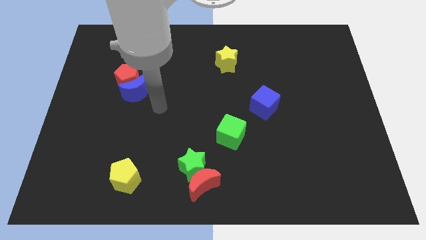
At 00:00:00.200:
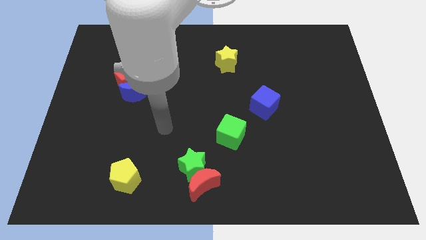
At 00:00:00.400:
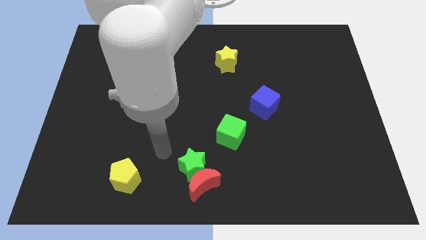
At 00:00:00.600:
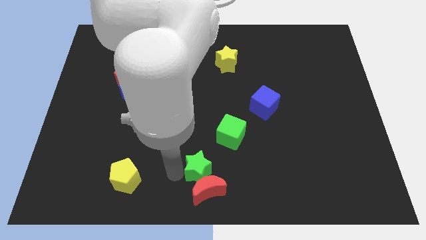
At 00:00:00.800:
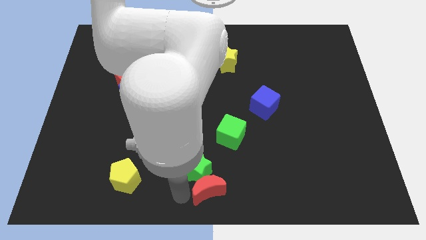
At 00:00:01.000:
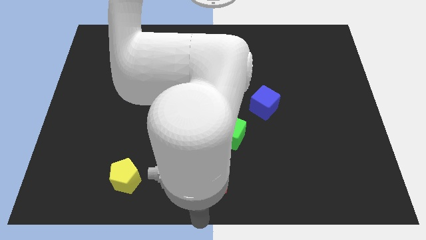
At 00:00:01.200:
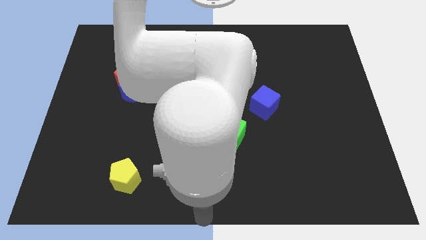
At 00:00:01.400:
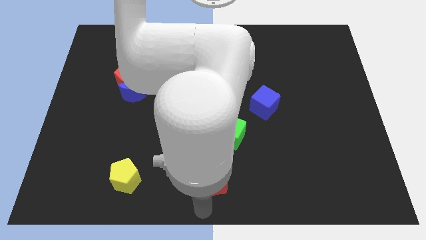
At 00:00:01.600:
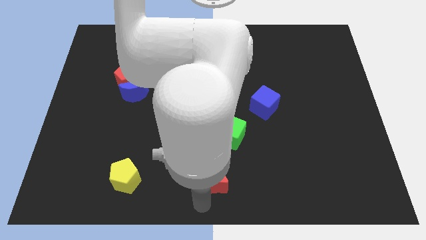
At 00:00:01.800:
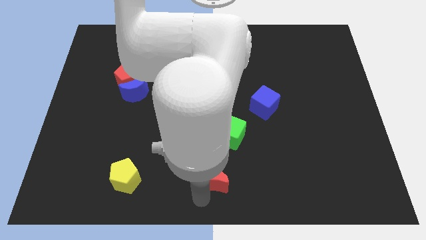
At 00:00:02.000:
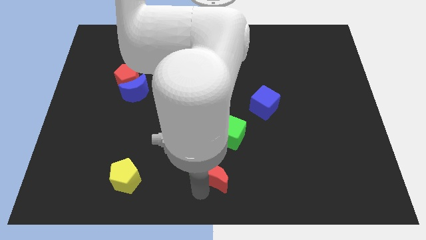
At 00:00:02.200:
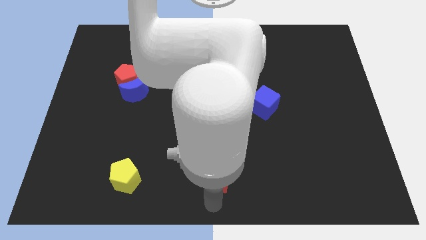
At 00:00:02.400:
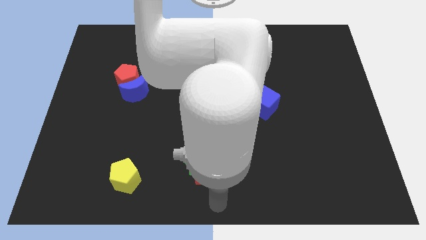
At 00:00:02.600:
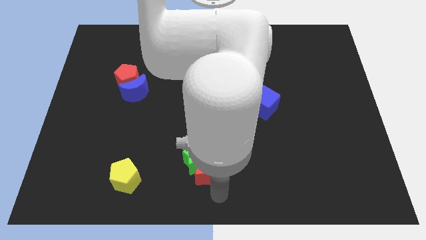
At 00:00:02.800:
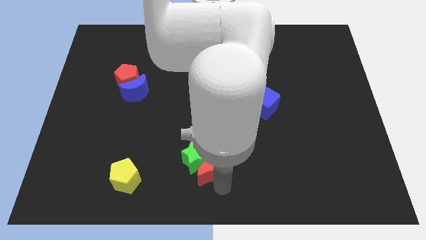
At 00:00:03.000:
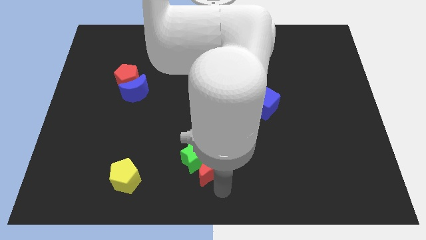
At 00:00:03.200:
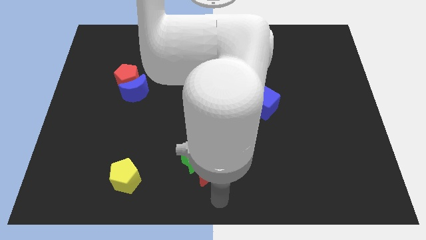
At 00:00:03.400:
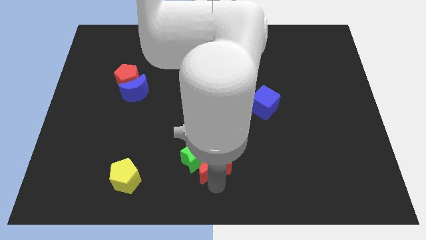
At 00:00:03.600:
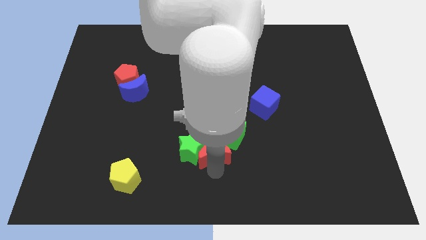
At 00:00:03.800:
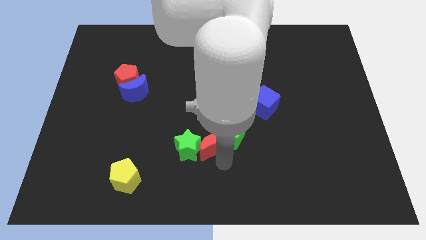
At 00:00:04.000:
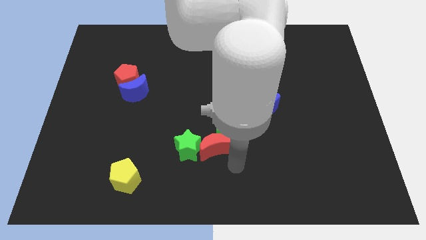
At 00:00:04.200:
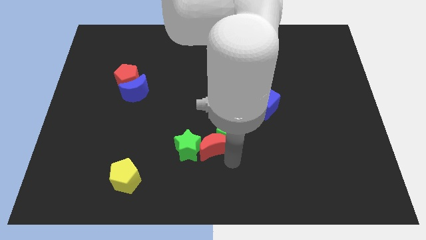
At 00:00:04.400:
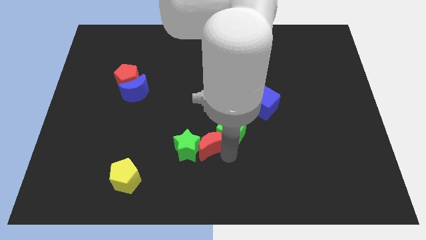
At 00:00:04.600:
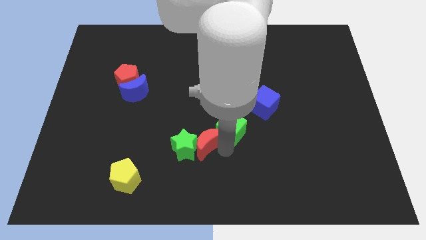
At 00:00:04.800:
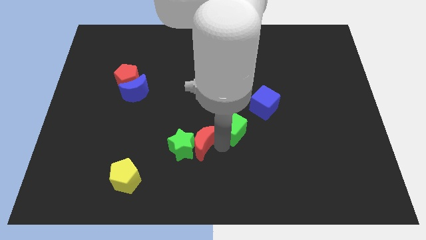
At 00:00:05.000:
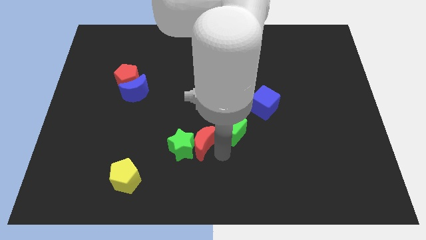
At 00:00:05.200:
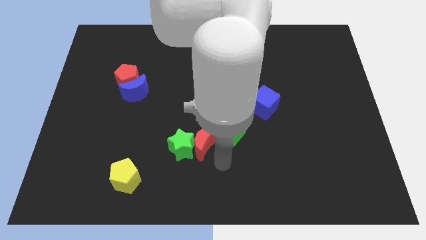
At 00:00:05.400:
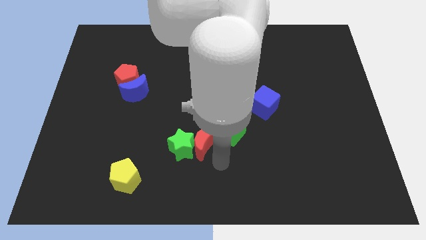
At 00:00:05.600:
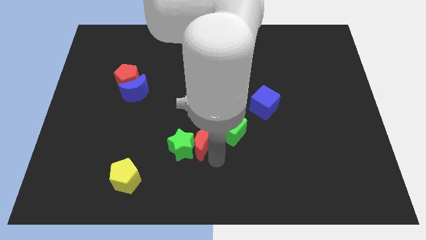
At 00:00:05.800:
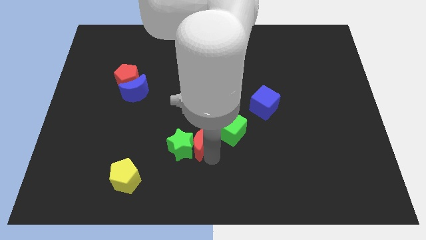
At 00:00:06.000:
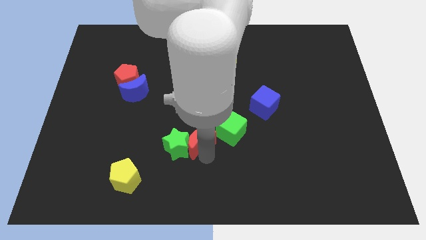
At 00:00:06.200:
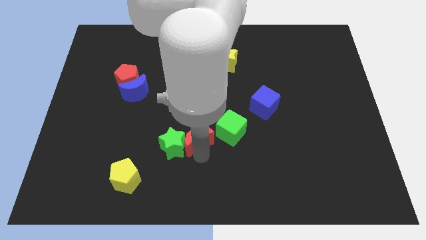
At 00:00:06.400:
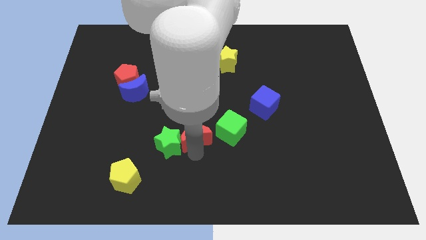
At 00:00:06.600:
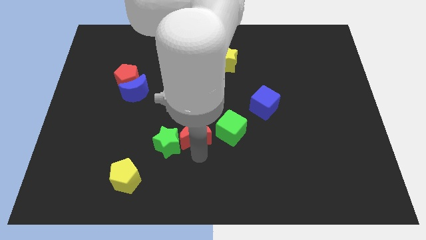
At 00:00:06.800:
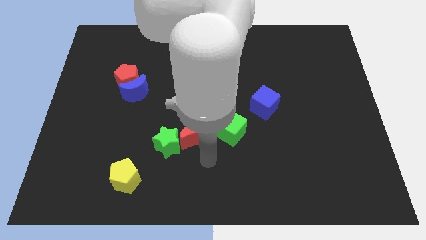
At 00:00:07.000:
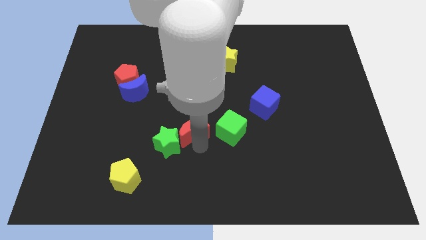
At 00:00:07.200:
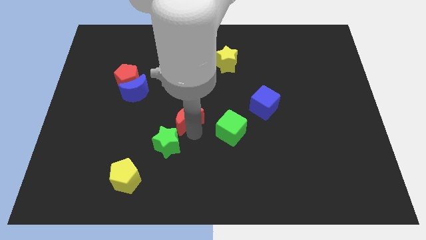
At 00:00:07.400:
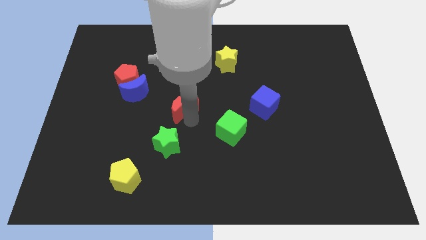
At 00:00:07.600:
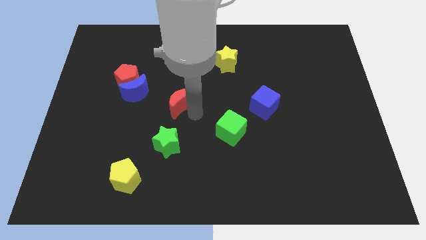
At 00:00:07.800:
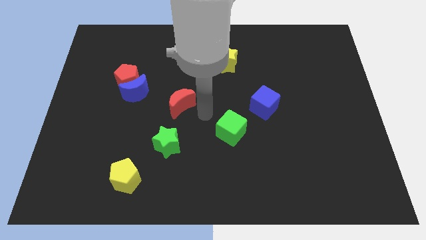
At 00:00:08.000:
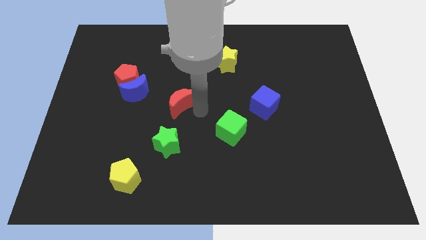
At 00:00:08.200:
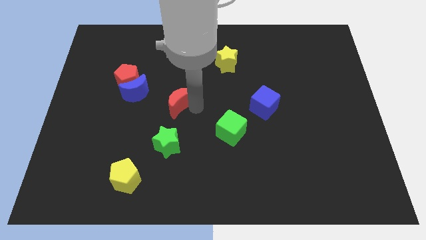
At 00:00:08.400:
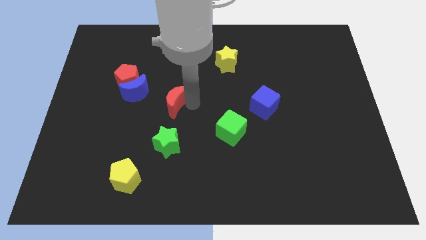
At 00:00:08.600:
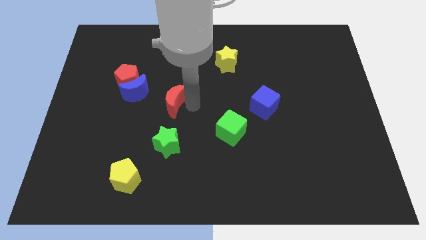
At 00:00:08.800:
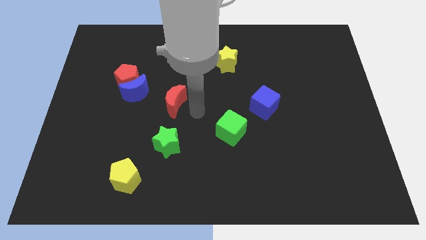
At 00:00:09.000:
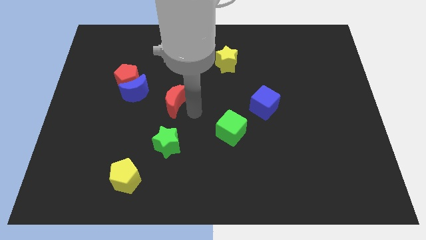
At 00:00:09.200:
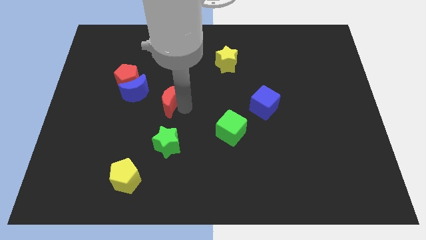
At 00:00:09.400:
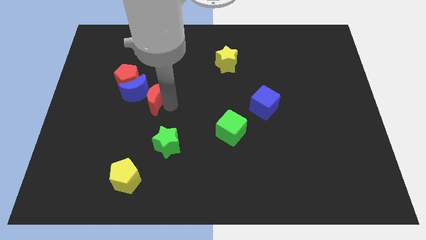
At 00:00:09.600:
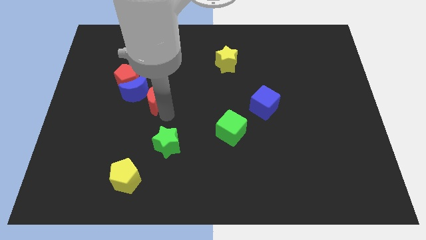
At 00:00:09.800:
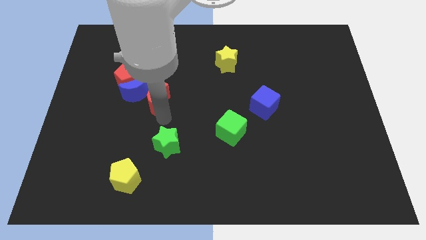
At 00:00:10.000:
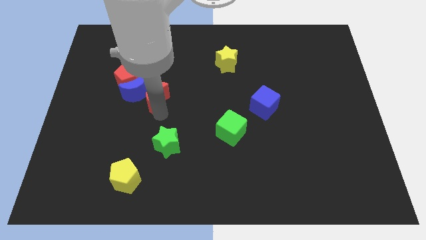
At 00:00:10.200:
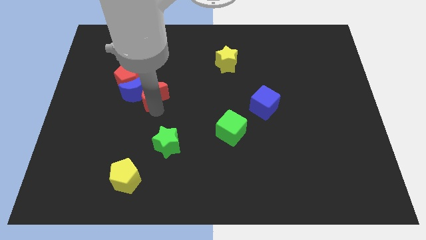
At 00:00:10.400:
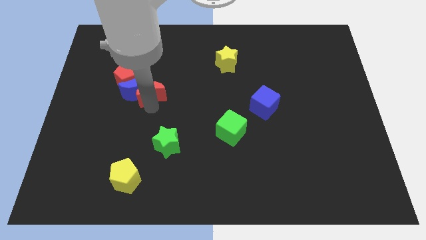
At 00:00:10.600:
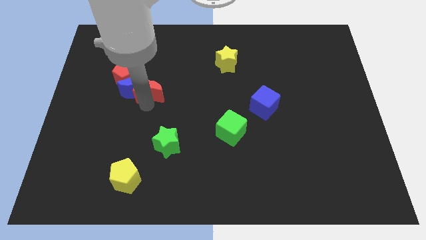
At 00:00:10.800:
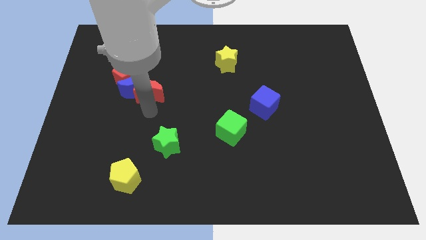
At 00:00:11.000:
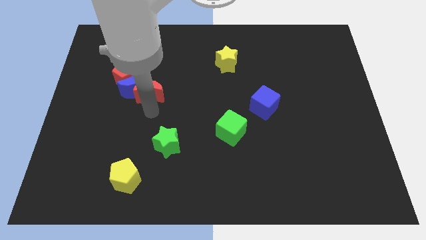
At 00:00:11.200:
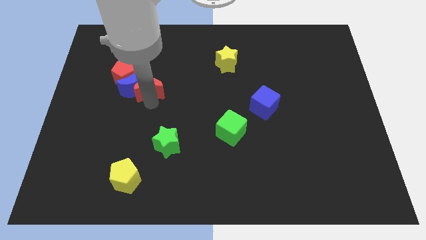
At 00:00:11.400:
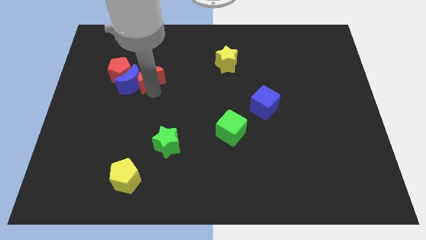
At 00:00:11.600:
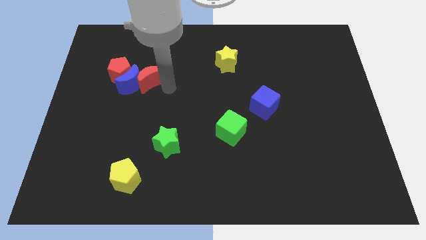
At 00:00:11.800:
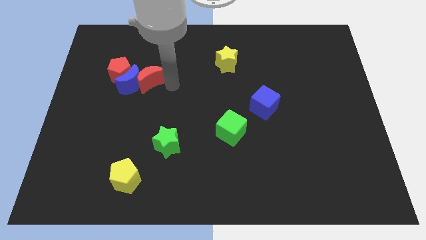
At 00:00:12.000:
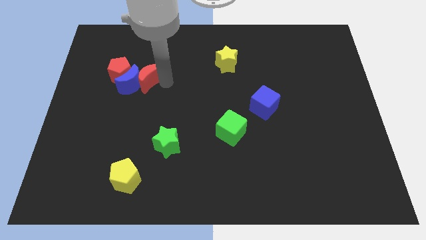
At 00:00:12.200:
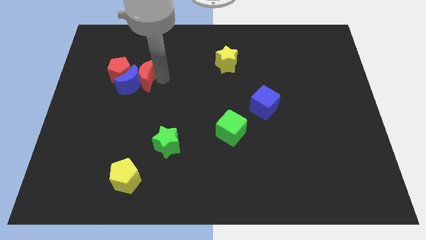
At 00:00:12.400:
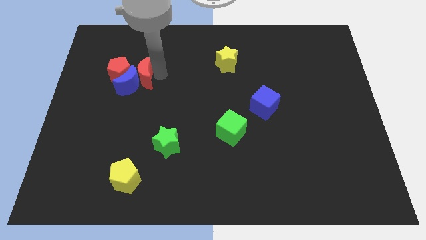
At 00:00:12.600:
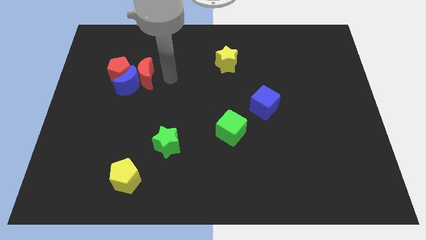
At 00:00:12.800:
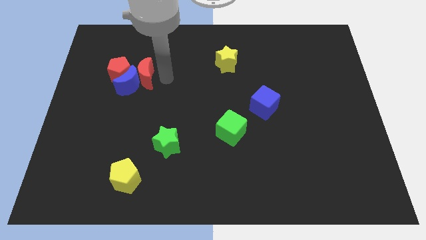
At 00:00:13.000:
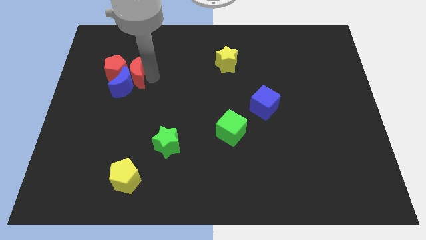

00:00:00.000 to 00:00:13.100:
push the red moon to the red pentagon

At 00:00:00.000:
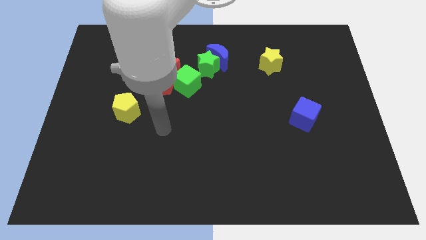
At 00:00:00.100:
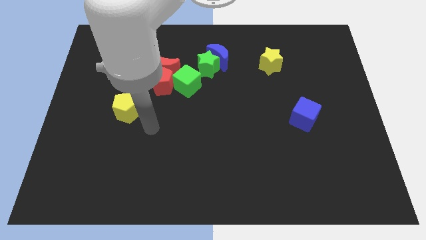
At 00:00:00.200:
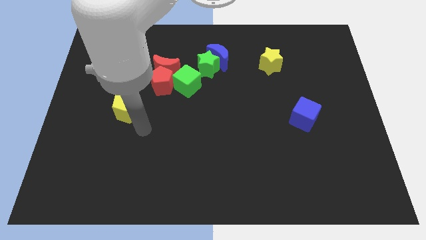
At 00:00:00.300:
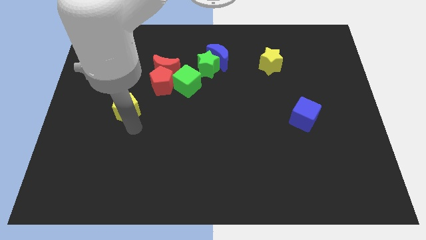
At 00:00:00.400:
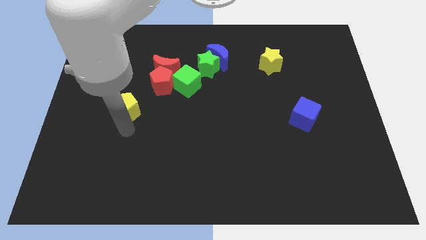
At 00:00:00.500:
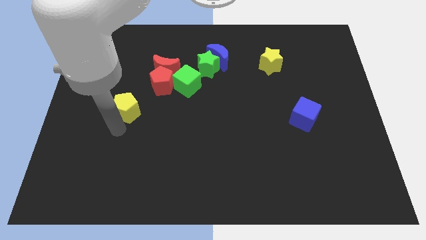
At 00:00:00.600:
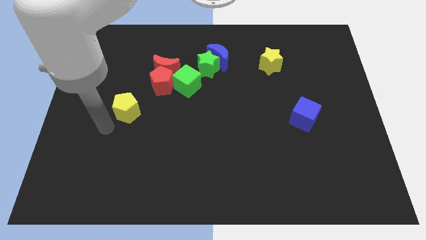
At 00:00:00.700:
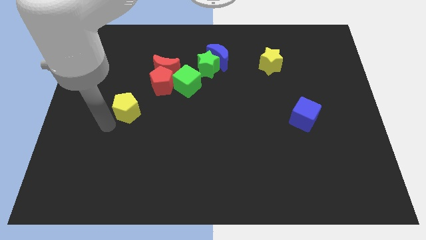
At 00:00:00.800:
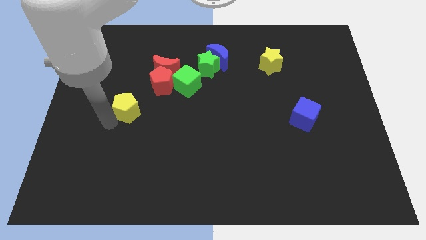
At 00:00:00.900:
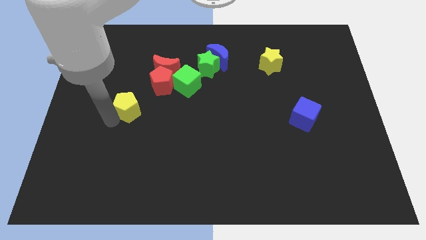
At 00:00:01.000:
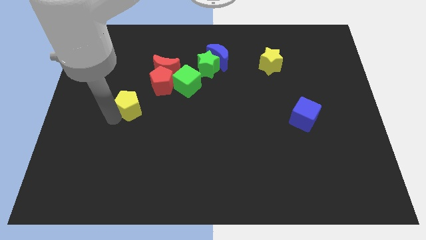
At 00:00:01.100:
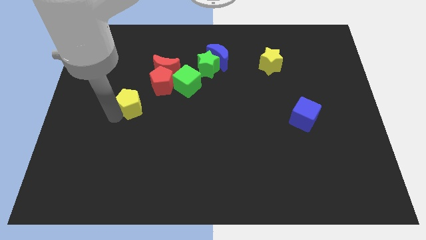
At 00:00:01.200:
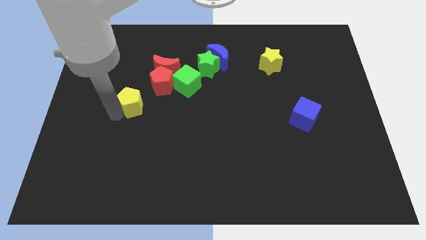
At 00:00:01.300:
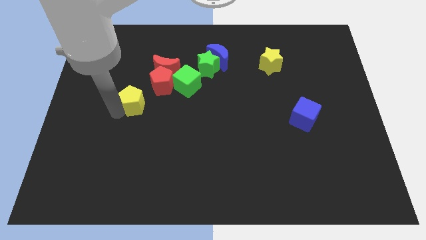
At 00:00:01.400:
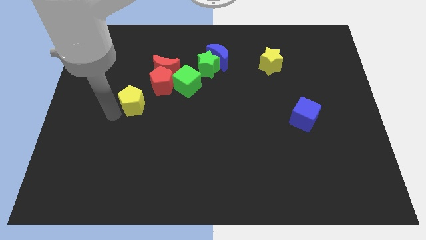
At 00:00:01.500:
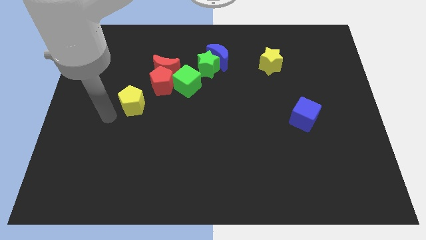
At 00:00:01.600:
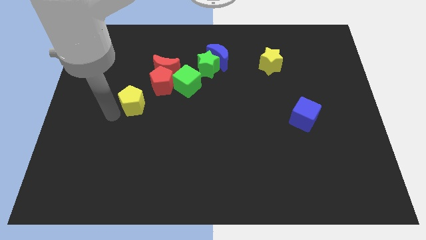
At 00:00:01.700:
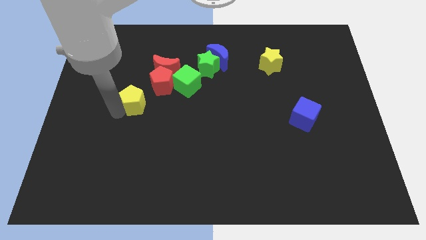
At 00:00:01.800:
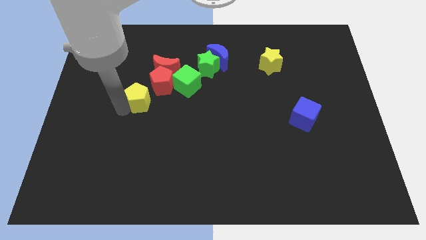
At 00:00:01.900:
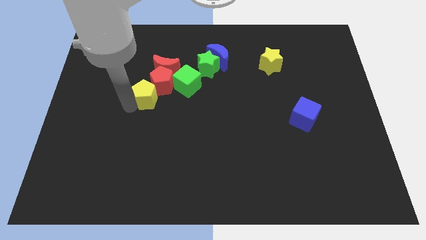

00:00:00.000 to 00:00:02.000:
push the yellow pentagon next to the red pentagon
